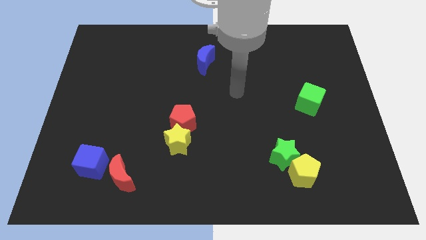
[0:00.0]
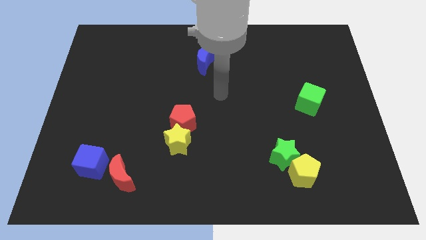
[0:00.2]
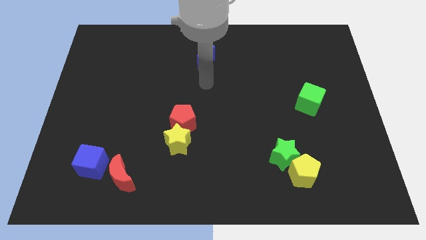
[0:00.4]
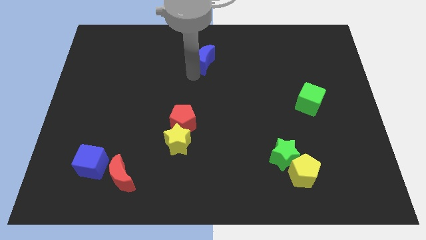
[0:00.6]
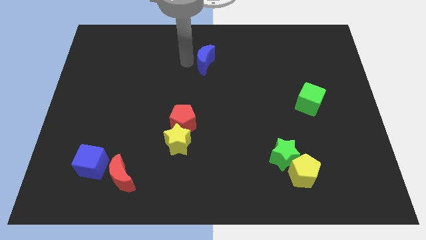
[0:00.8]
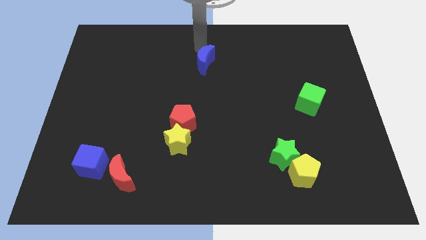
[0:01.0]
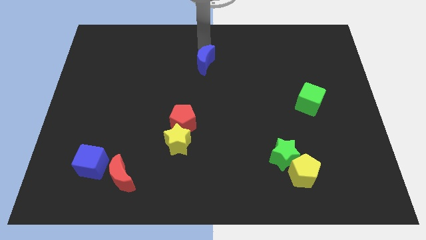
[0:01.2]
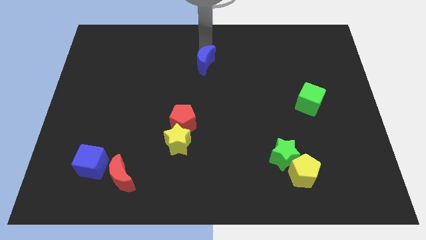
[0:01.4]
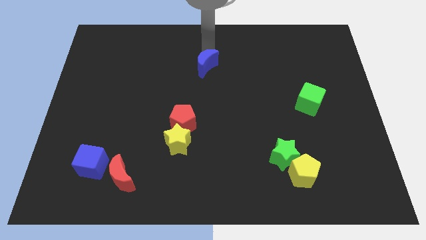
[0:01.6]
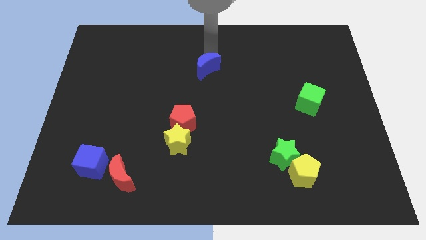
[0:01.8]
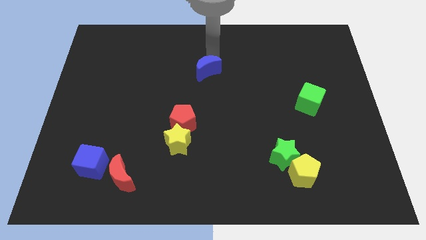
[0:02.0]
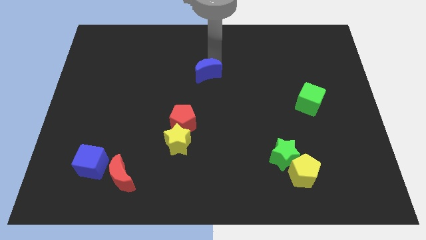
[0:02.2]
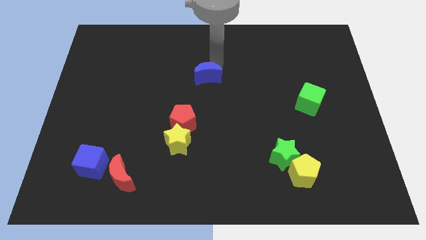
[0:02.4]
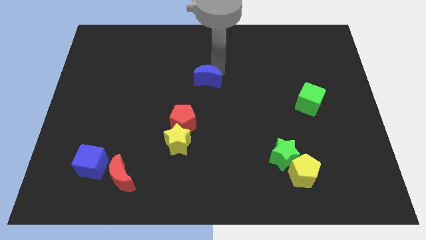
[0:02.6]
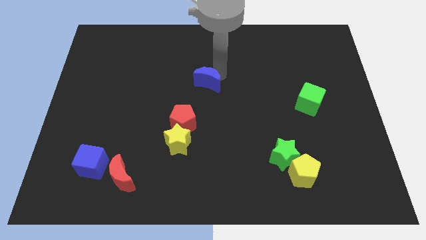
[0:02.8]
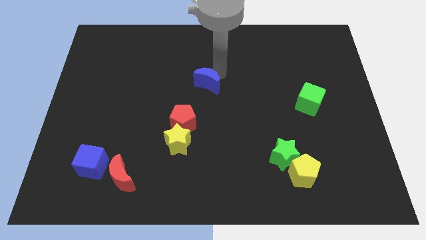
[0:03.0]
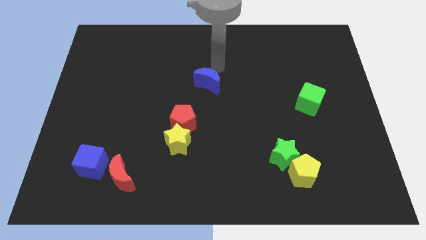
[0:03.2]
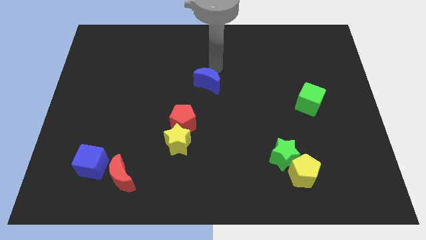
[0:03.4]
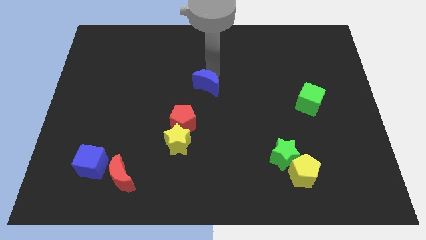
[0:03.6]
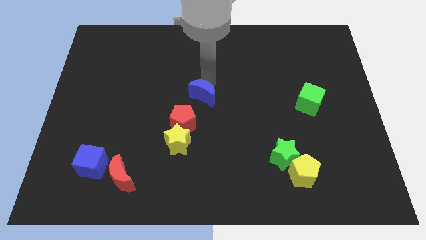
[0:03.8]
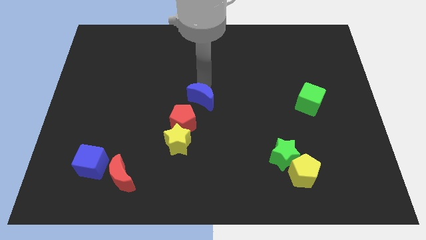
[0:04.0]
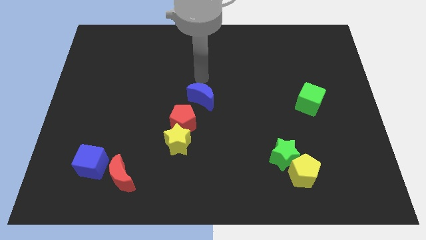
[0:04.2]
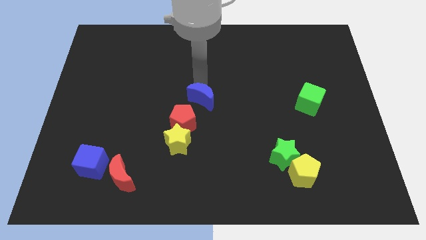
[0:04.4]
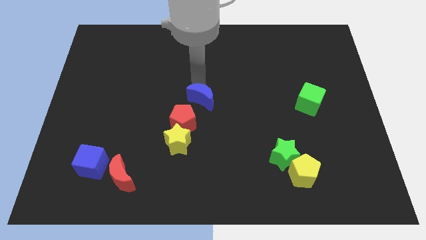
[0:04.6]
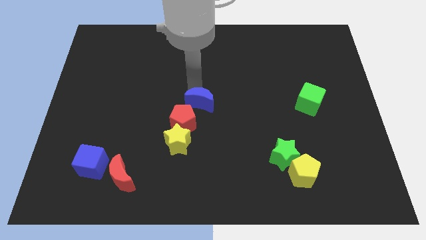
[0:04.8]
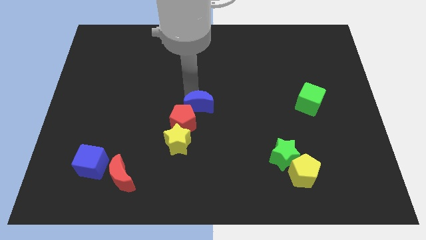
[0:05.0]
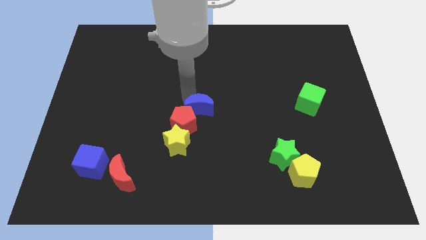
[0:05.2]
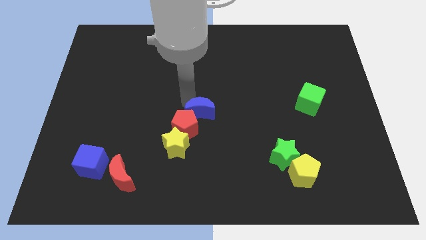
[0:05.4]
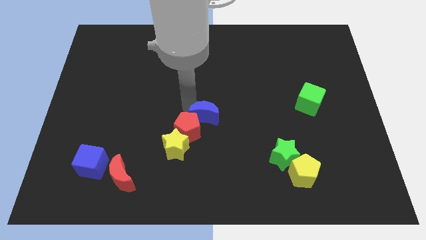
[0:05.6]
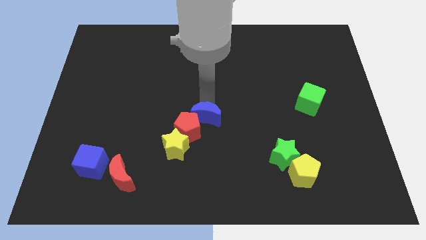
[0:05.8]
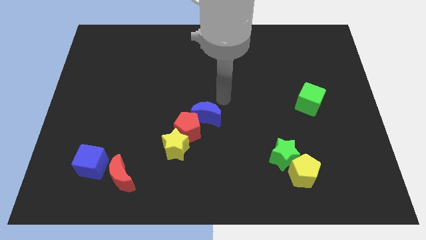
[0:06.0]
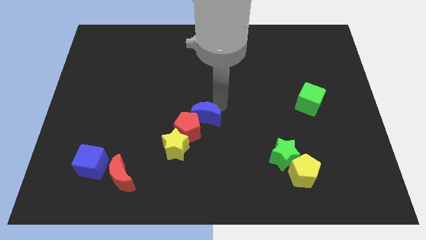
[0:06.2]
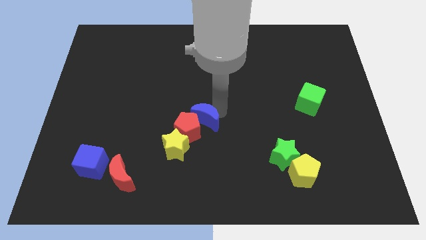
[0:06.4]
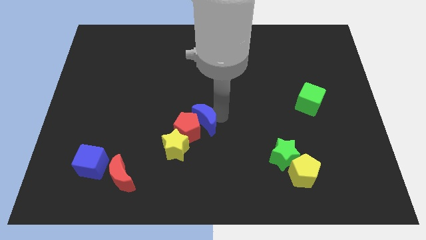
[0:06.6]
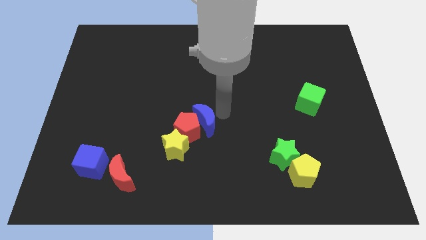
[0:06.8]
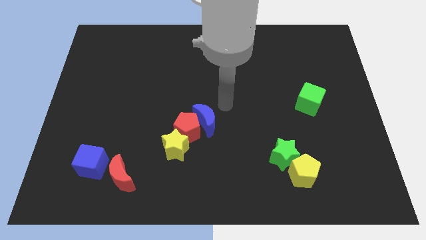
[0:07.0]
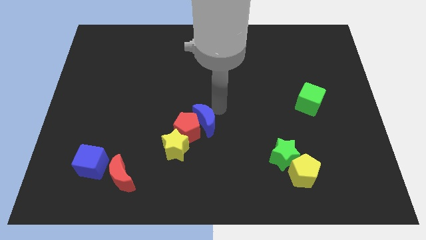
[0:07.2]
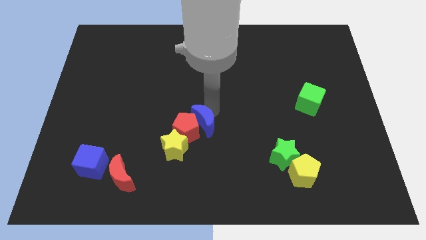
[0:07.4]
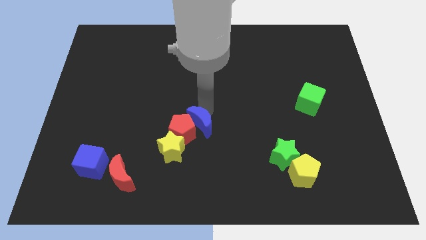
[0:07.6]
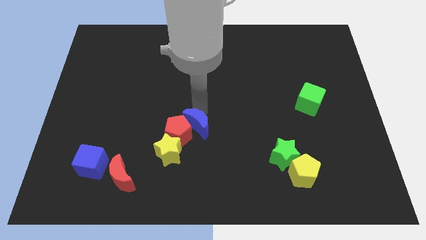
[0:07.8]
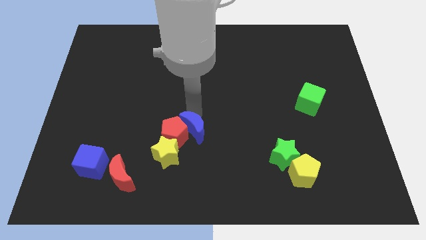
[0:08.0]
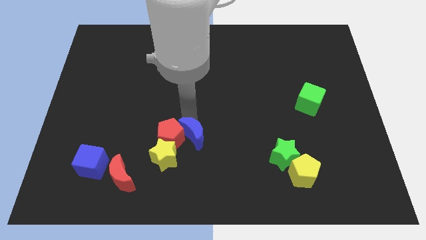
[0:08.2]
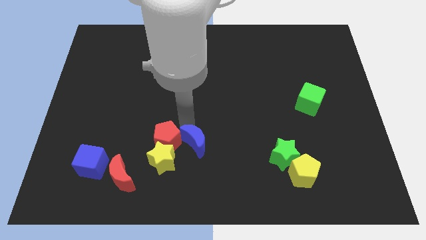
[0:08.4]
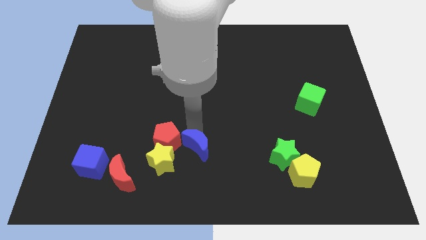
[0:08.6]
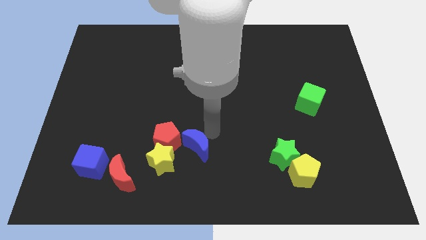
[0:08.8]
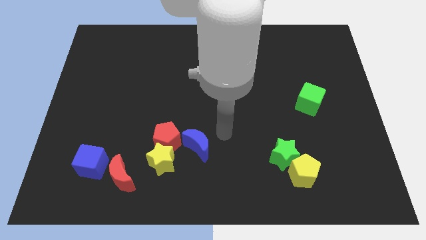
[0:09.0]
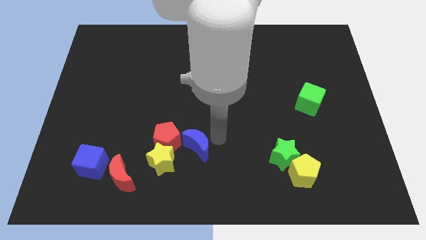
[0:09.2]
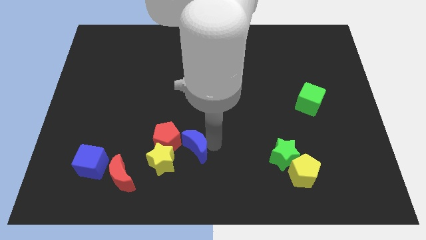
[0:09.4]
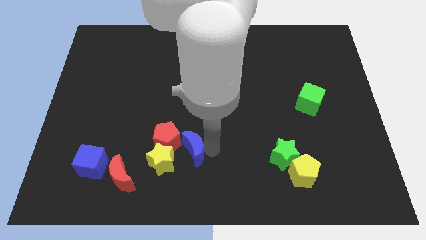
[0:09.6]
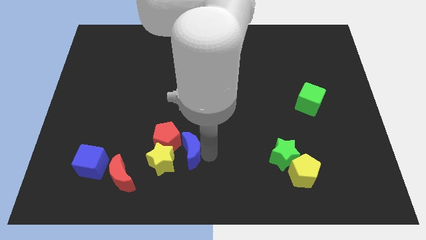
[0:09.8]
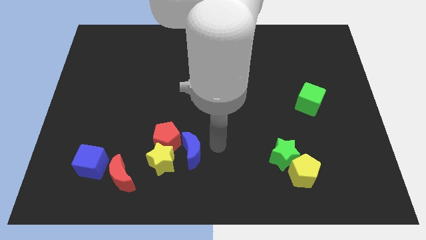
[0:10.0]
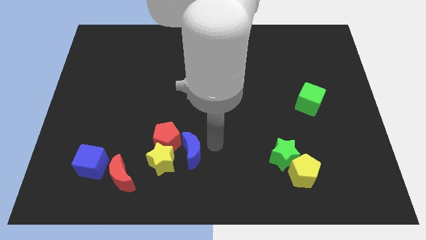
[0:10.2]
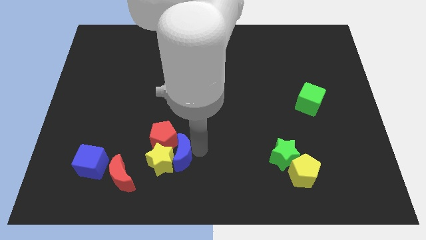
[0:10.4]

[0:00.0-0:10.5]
put the blue moon to the yellow star

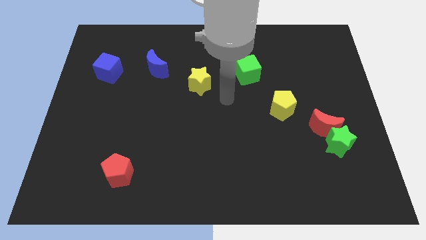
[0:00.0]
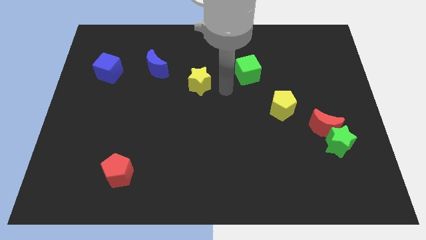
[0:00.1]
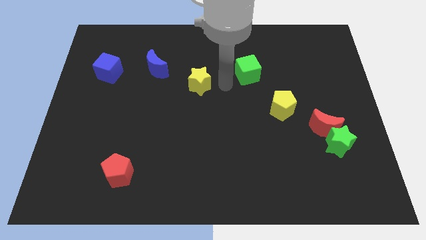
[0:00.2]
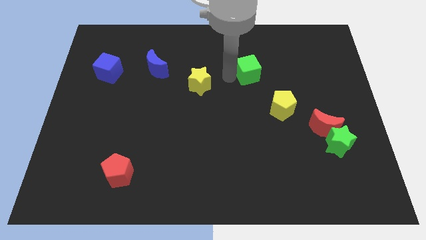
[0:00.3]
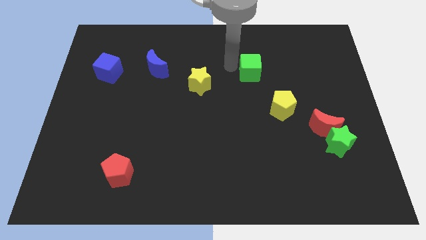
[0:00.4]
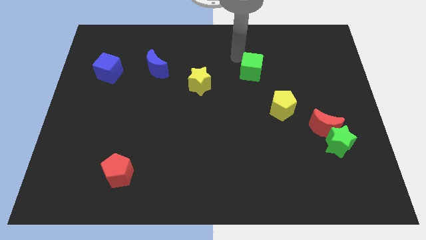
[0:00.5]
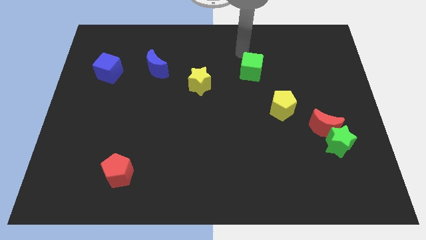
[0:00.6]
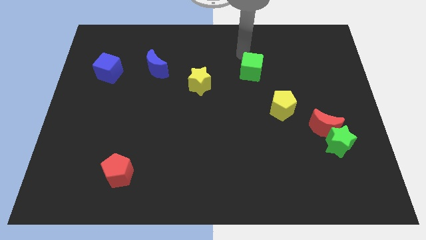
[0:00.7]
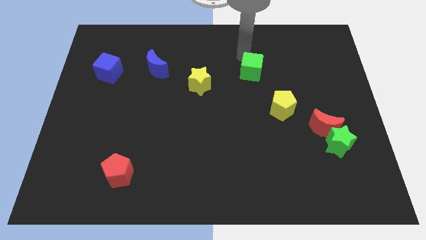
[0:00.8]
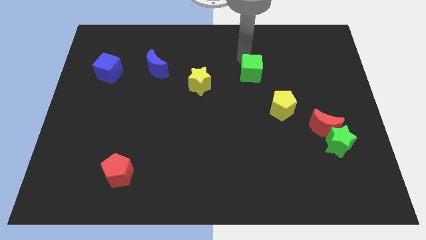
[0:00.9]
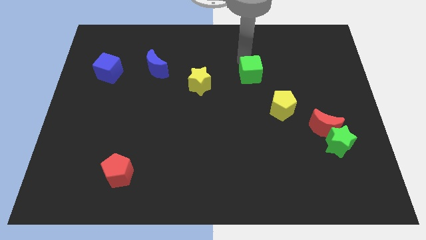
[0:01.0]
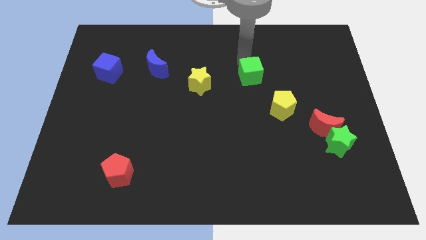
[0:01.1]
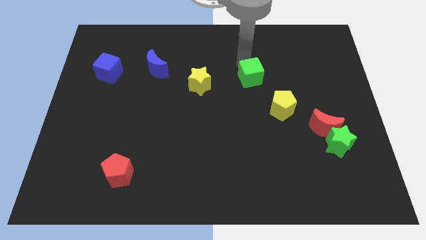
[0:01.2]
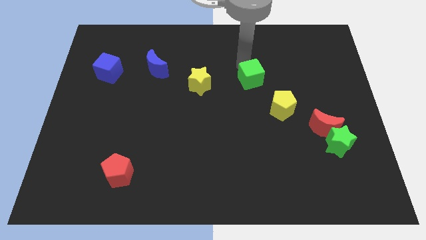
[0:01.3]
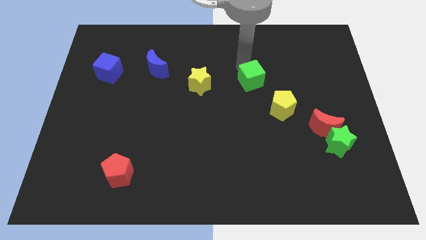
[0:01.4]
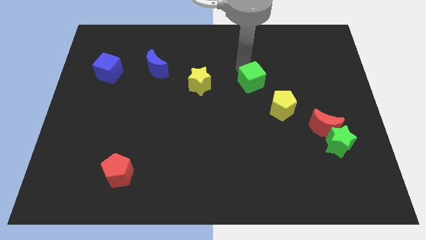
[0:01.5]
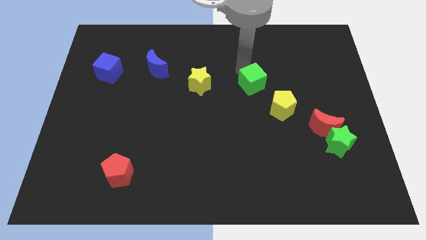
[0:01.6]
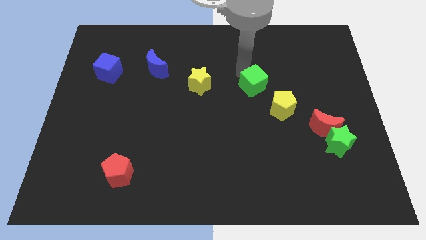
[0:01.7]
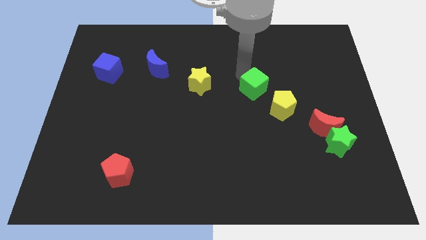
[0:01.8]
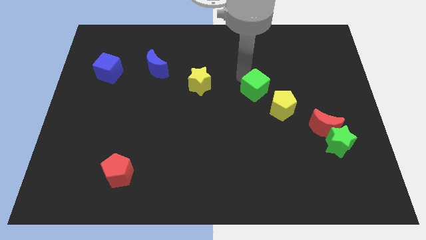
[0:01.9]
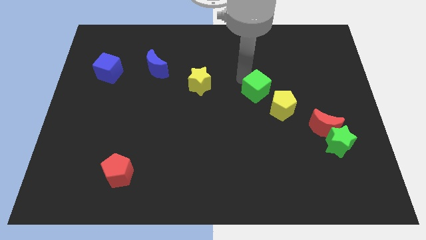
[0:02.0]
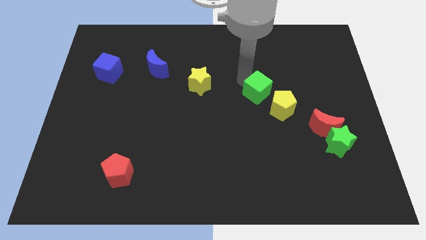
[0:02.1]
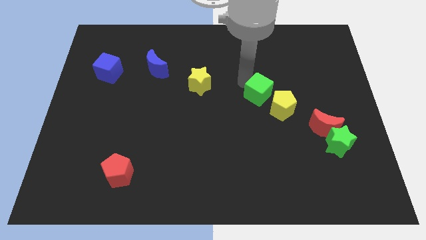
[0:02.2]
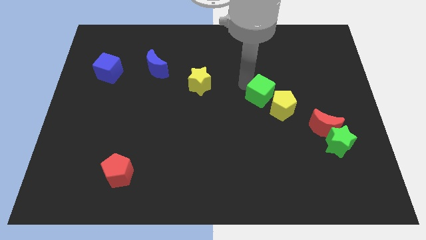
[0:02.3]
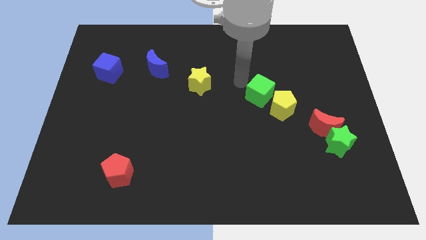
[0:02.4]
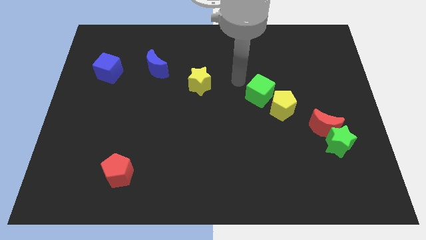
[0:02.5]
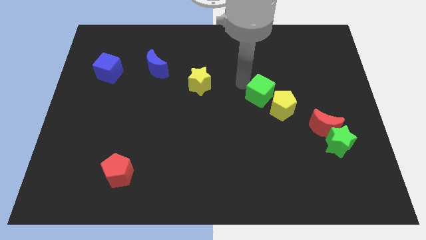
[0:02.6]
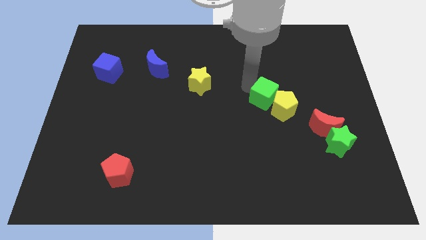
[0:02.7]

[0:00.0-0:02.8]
slide the green cube towards the yellow pentagon
